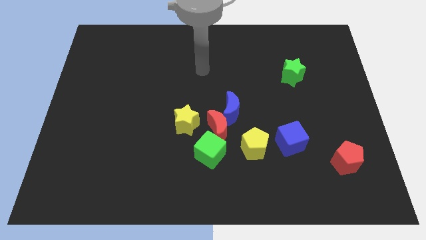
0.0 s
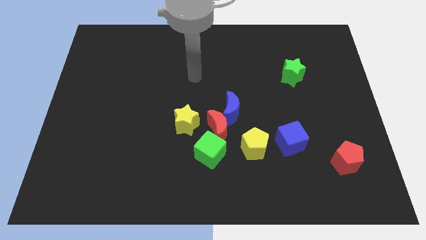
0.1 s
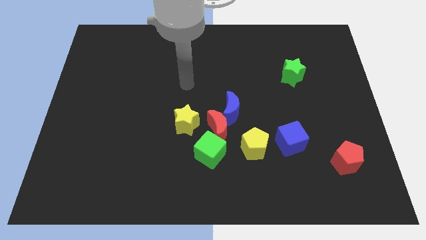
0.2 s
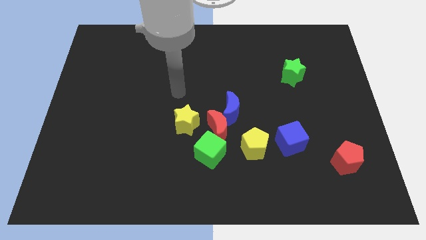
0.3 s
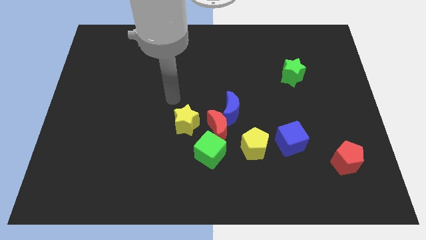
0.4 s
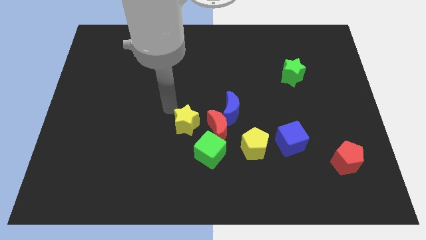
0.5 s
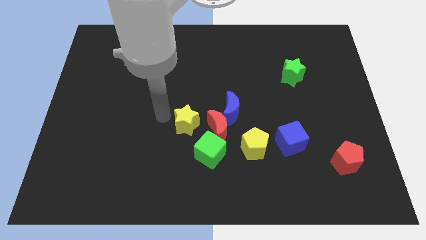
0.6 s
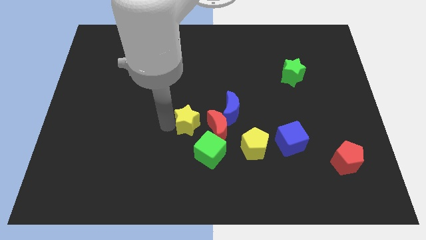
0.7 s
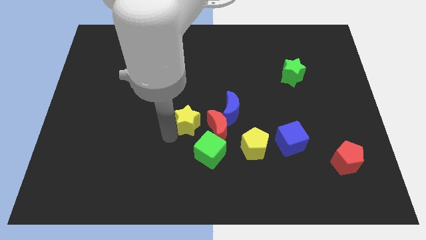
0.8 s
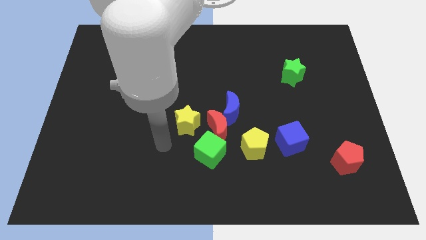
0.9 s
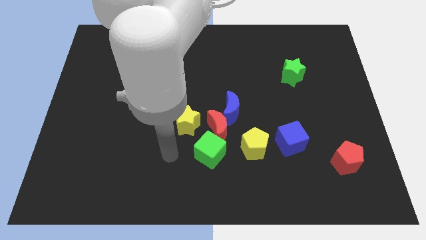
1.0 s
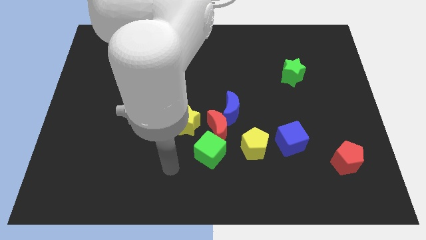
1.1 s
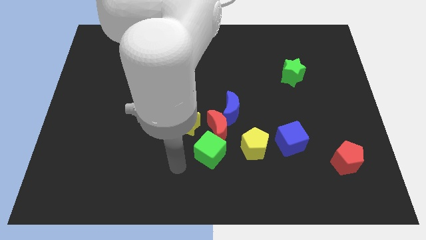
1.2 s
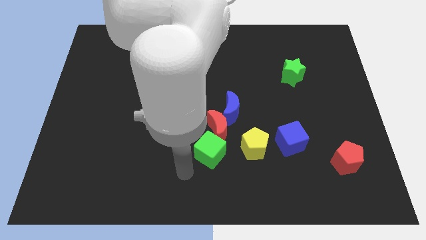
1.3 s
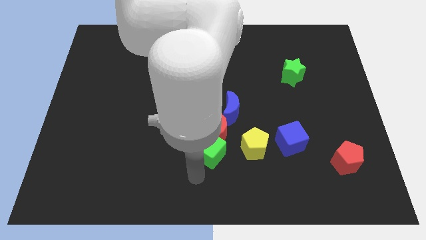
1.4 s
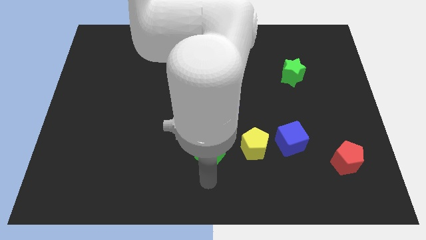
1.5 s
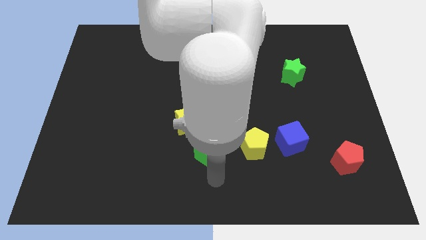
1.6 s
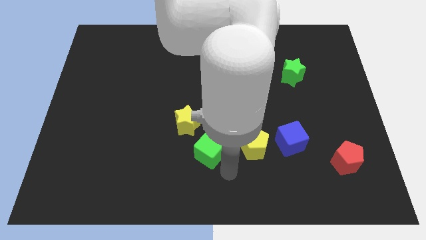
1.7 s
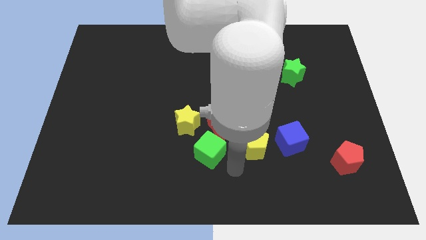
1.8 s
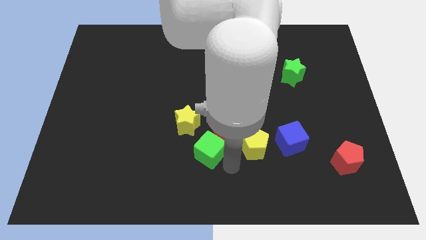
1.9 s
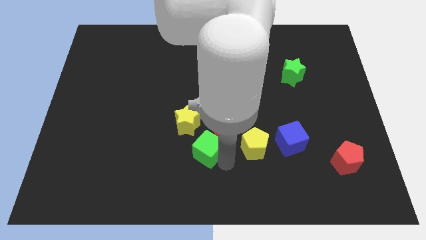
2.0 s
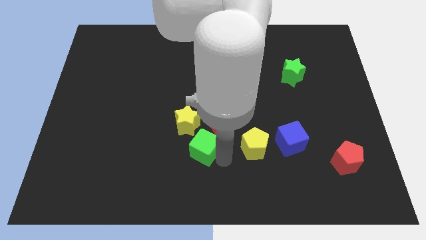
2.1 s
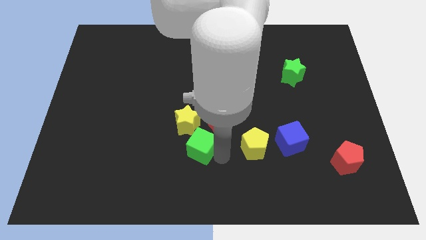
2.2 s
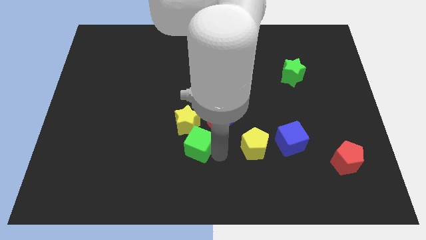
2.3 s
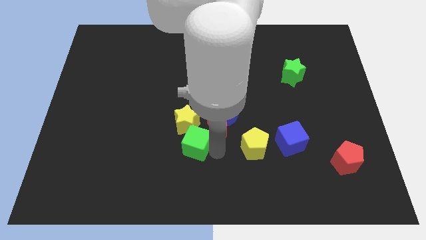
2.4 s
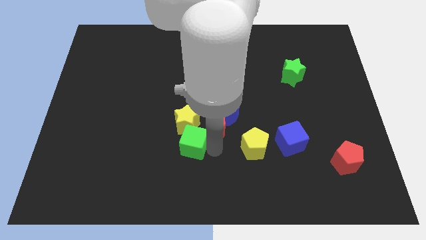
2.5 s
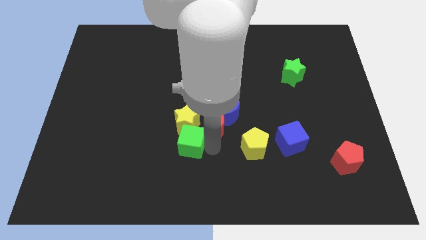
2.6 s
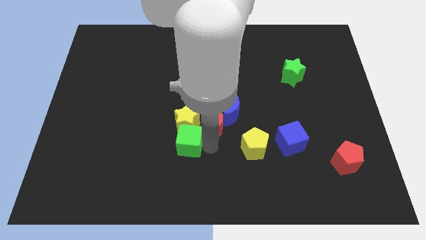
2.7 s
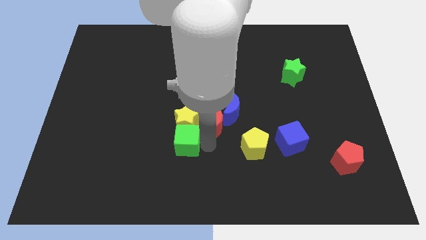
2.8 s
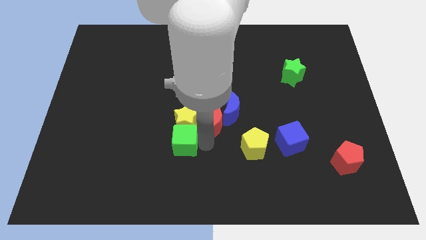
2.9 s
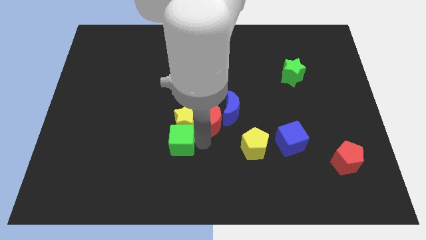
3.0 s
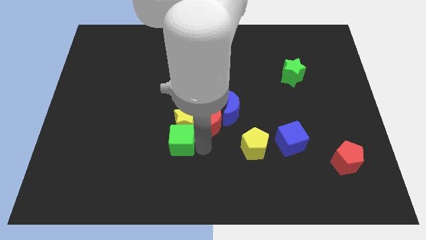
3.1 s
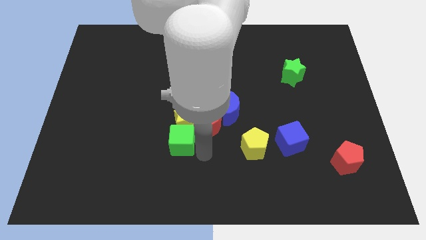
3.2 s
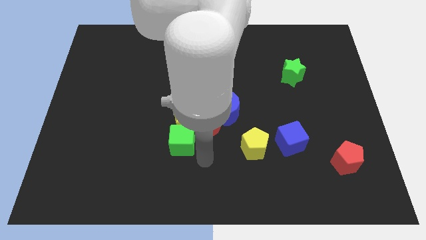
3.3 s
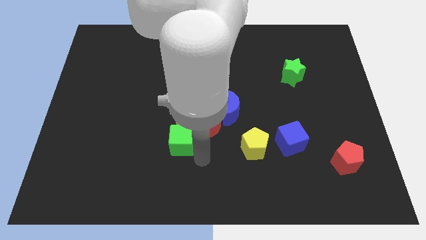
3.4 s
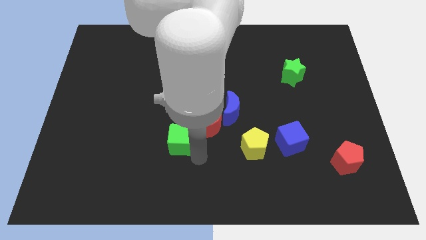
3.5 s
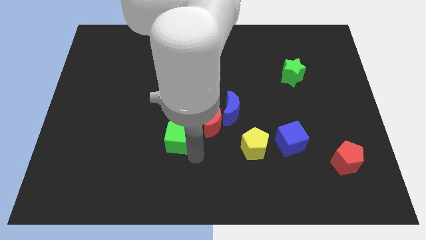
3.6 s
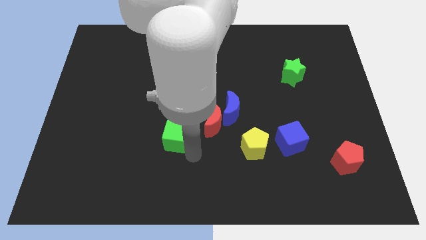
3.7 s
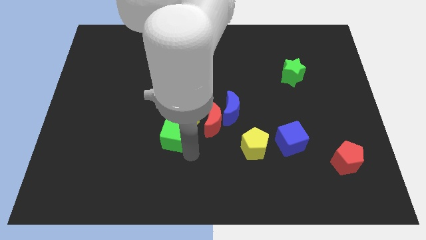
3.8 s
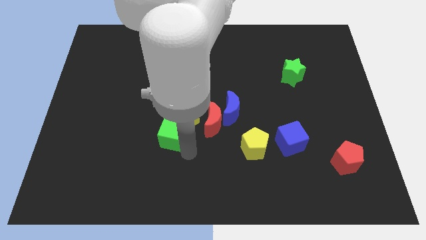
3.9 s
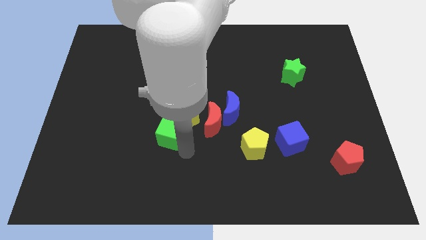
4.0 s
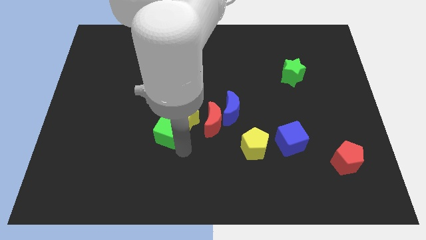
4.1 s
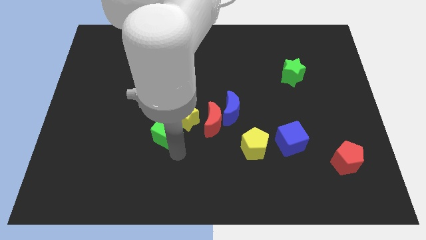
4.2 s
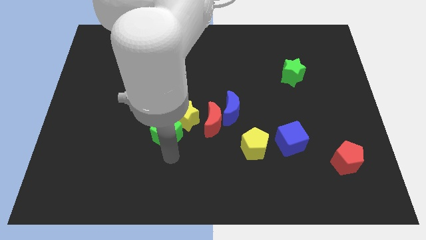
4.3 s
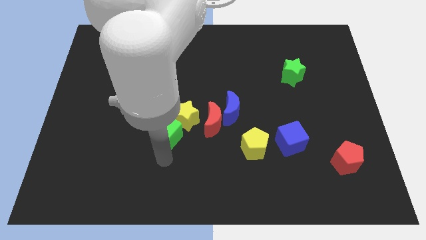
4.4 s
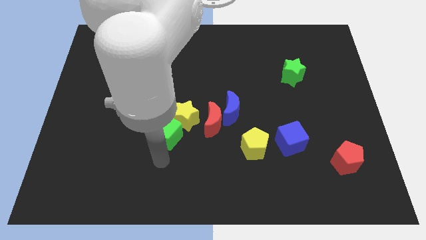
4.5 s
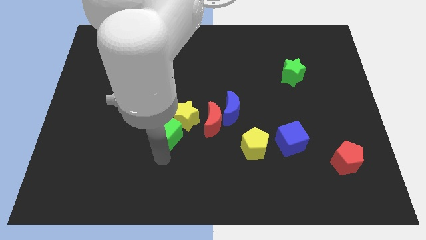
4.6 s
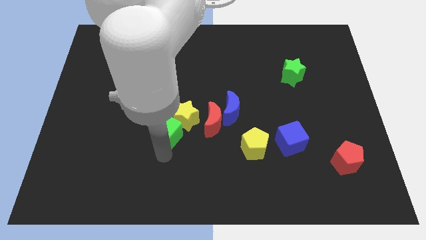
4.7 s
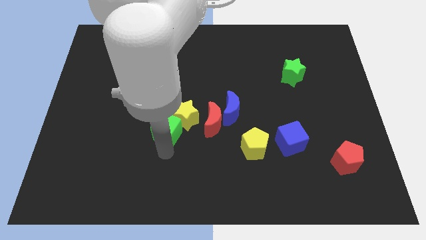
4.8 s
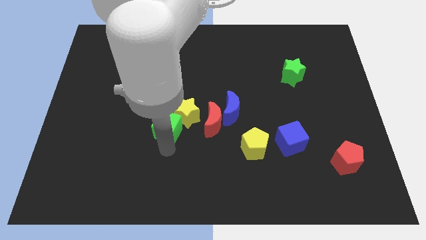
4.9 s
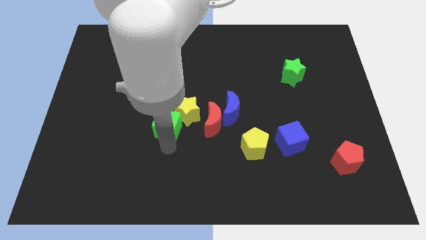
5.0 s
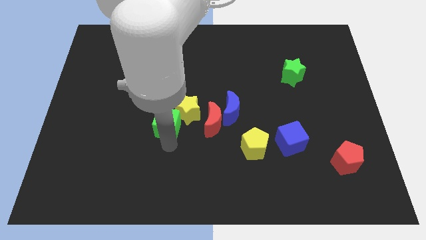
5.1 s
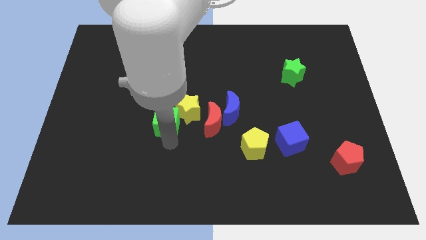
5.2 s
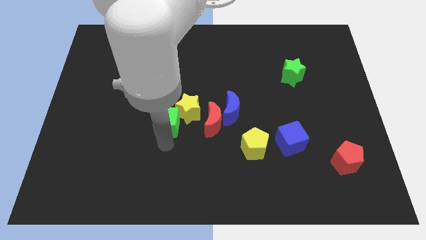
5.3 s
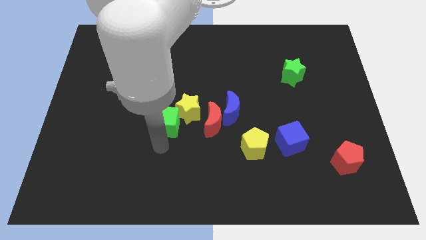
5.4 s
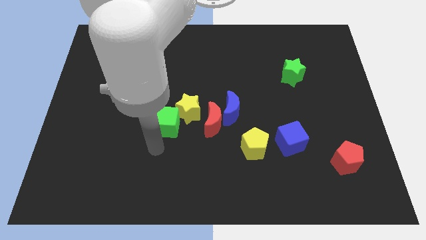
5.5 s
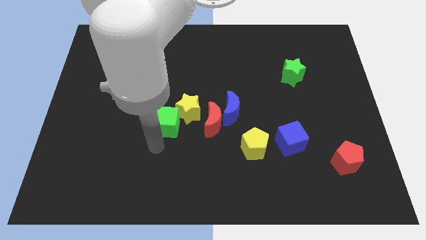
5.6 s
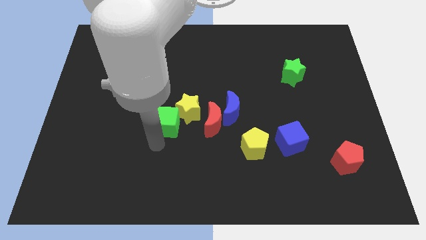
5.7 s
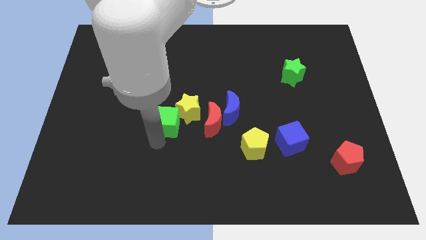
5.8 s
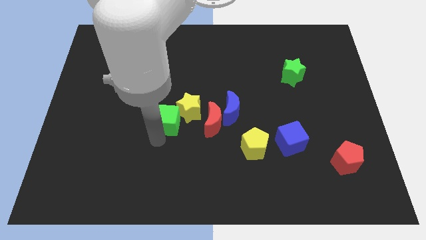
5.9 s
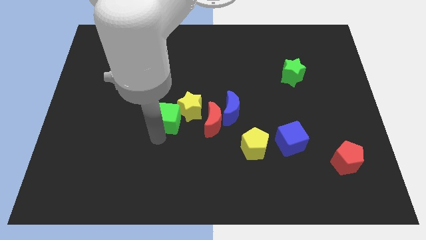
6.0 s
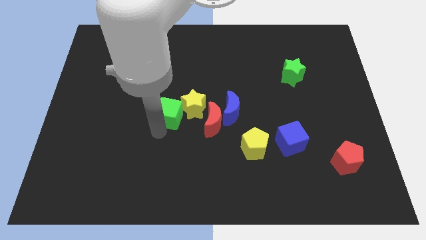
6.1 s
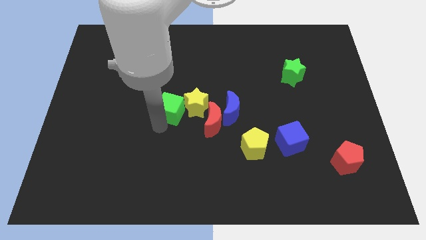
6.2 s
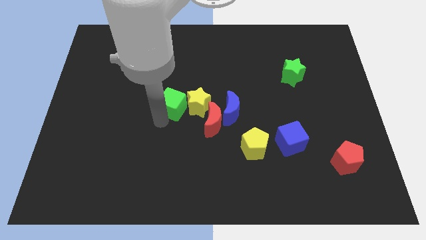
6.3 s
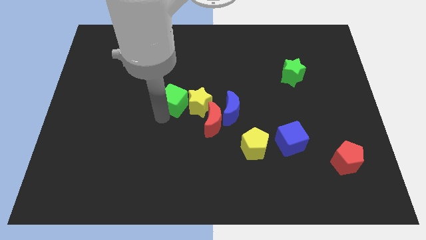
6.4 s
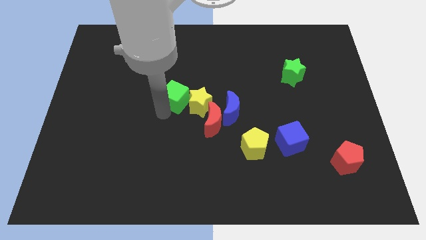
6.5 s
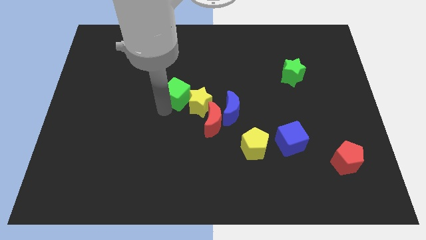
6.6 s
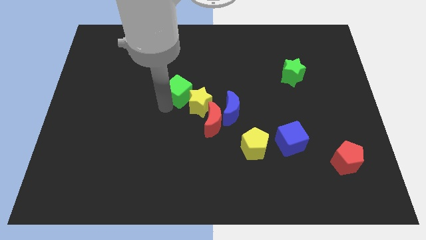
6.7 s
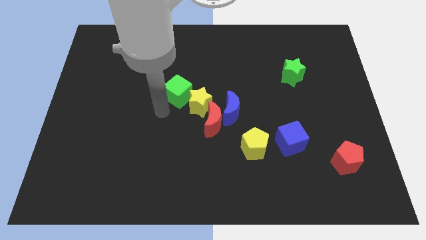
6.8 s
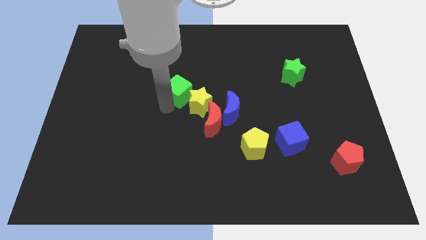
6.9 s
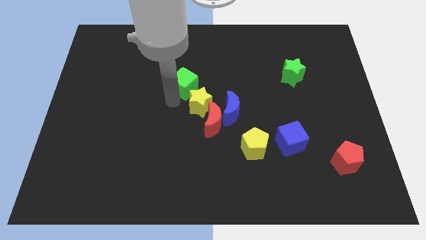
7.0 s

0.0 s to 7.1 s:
slide the green cube to the top of the yellow star
